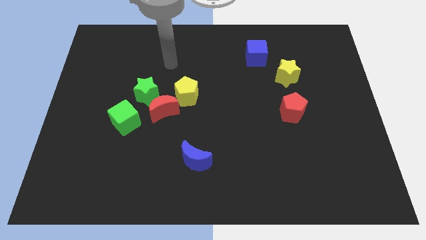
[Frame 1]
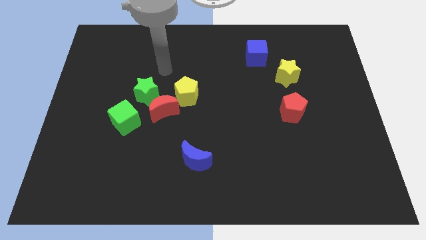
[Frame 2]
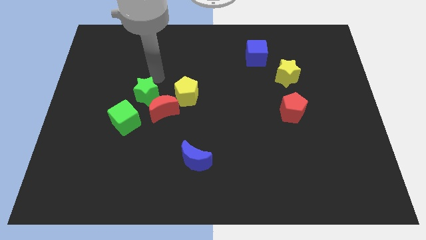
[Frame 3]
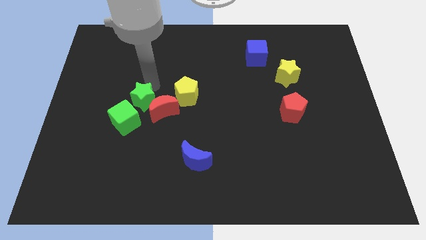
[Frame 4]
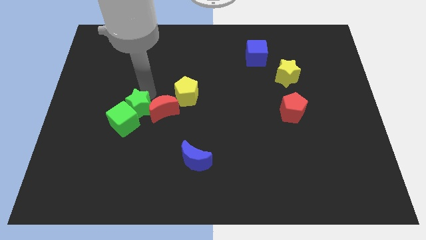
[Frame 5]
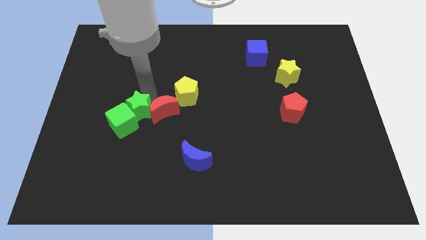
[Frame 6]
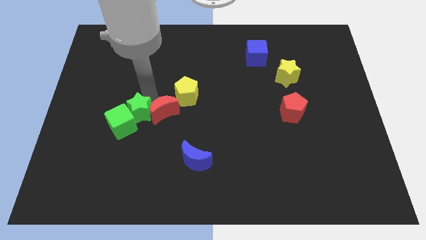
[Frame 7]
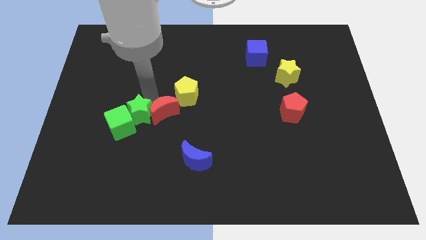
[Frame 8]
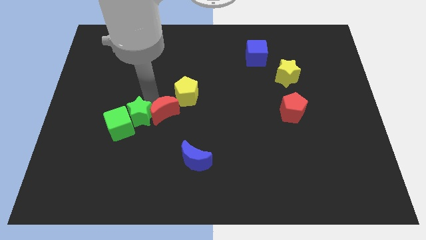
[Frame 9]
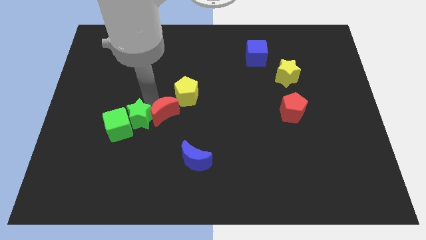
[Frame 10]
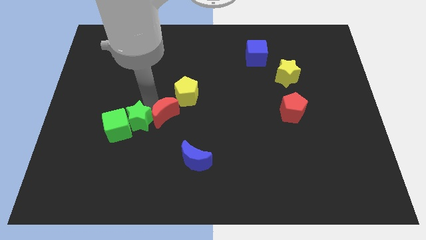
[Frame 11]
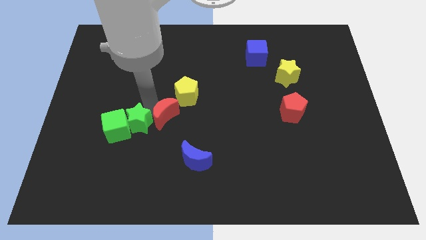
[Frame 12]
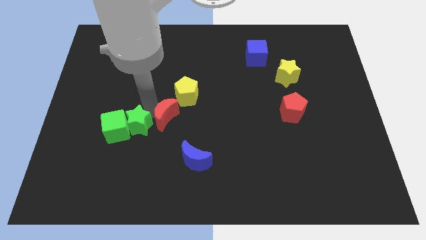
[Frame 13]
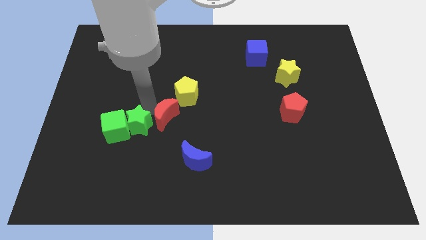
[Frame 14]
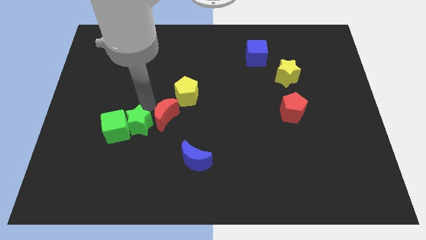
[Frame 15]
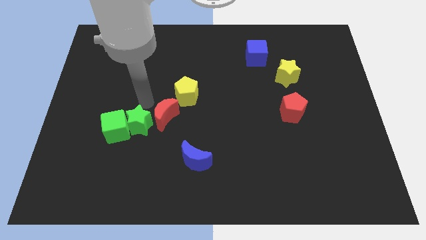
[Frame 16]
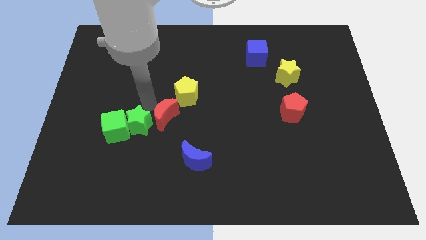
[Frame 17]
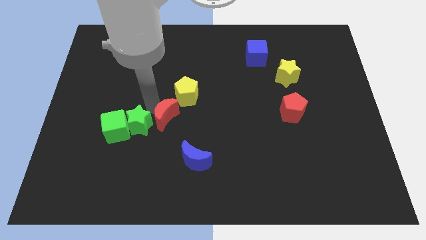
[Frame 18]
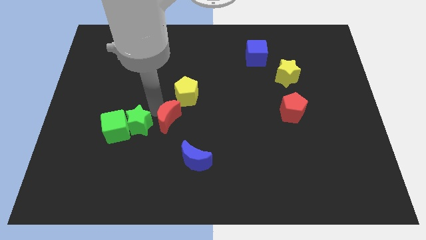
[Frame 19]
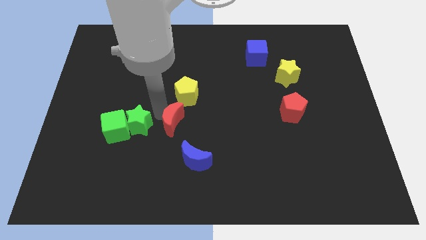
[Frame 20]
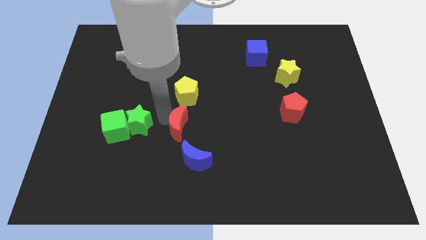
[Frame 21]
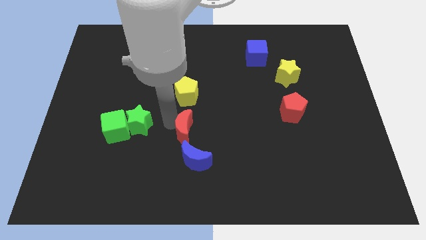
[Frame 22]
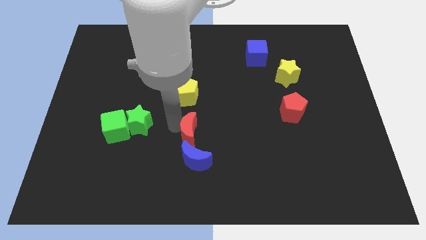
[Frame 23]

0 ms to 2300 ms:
pull the red moon apart from the green star, yellow pentagon, and green cube

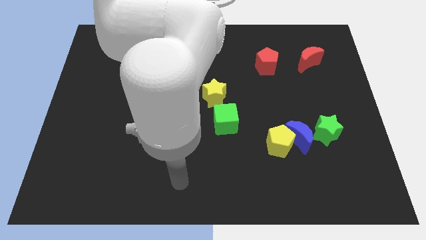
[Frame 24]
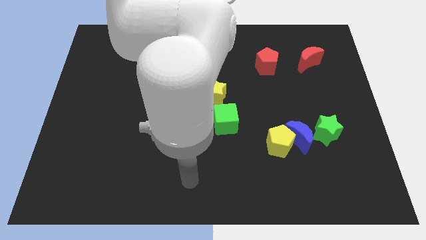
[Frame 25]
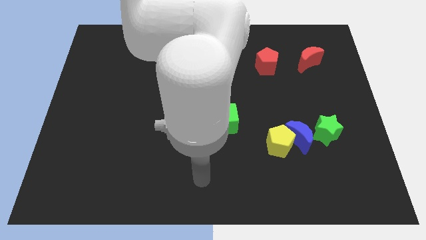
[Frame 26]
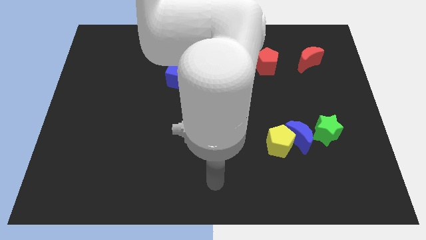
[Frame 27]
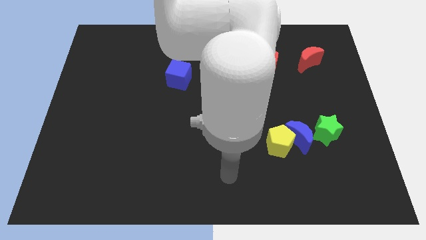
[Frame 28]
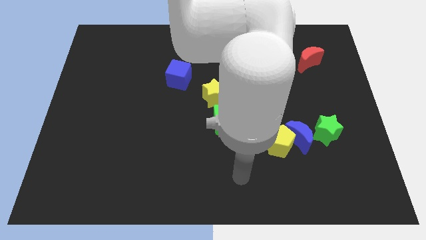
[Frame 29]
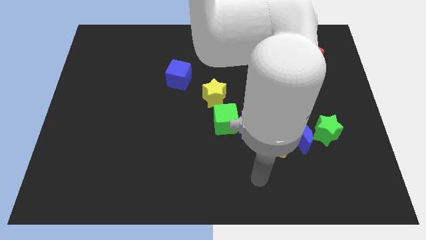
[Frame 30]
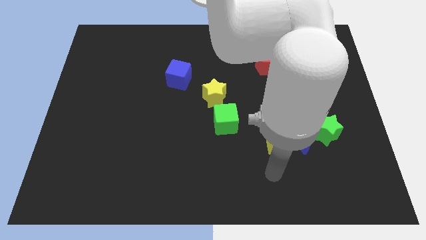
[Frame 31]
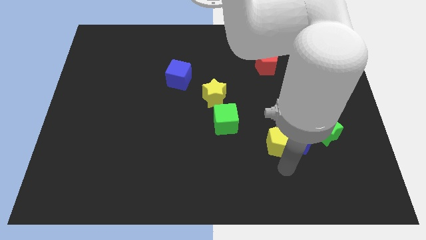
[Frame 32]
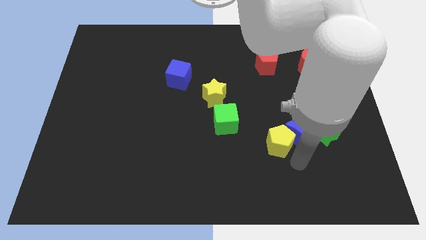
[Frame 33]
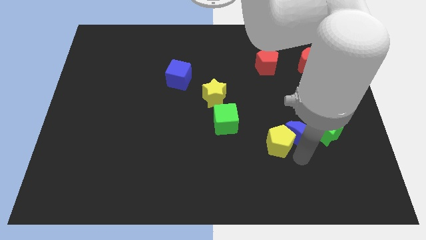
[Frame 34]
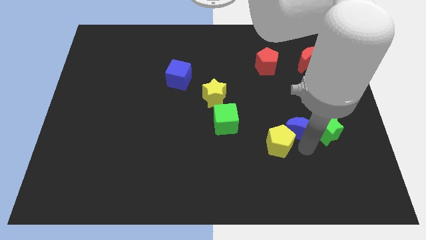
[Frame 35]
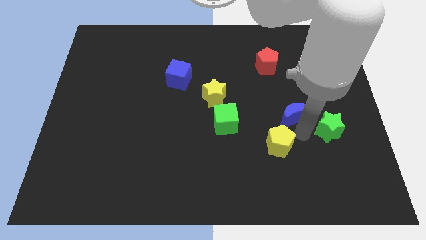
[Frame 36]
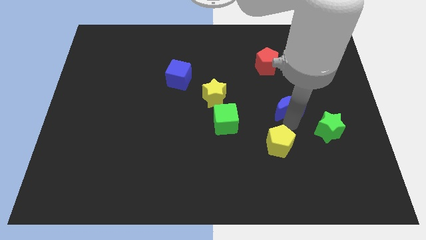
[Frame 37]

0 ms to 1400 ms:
move the yellow pentagon away from the blue moon

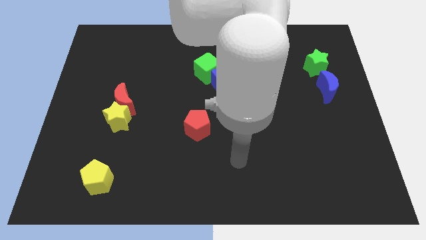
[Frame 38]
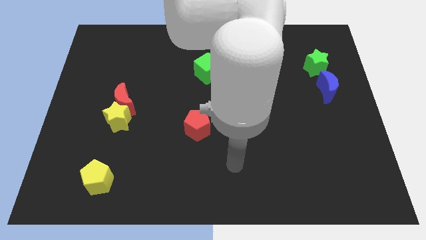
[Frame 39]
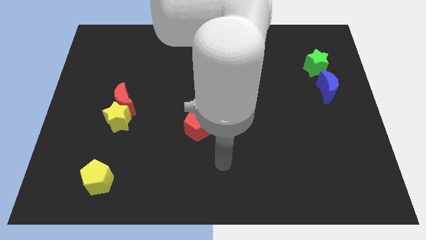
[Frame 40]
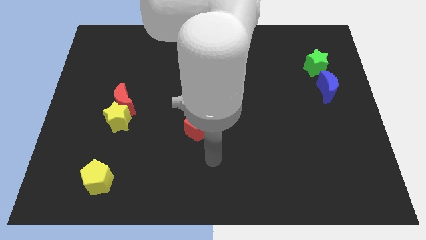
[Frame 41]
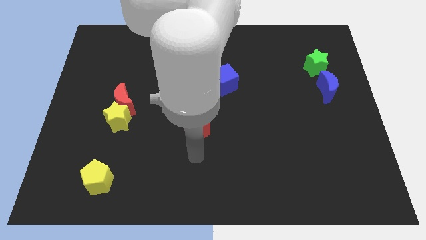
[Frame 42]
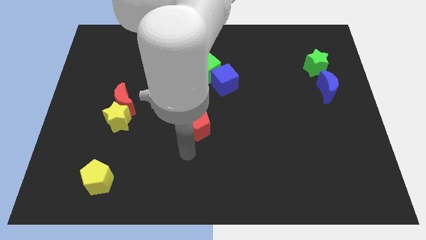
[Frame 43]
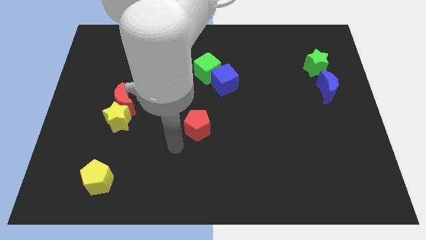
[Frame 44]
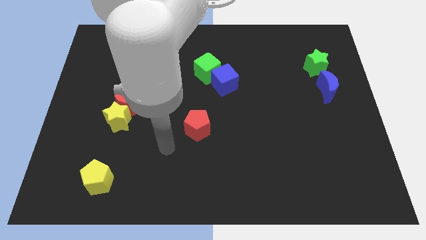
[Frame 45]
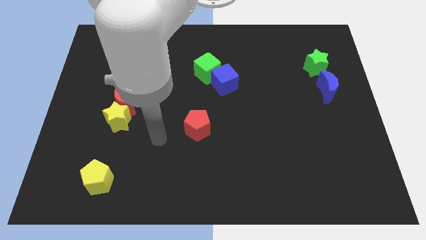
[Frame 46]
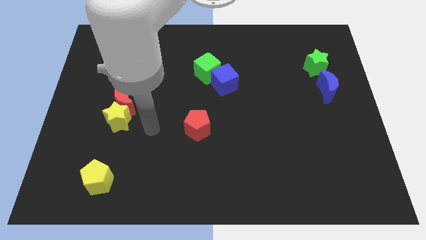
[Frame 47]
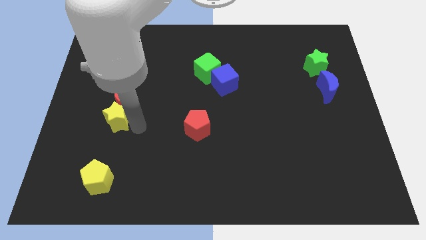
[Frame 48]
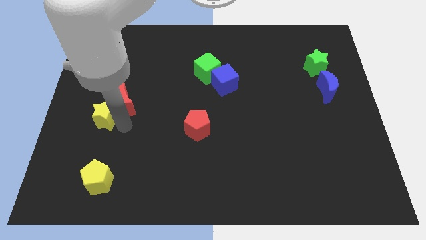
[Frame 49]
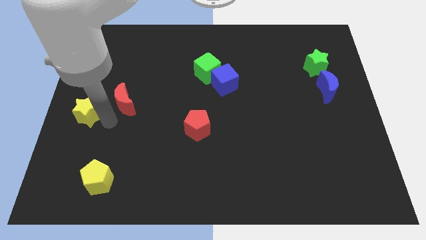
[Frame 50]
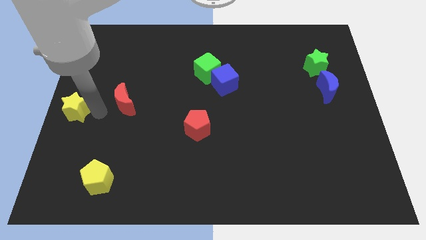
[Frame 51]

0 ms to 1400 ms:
pull the red moon apart from the yellow star

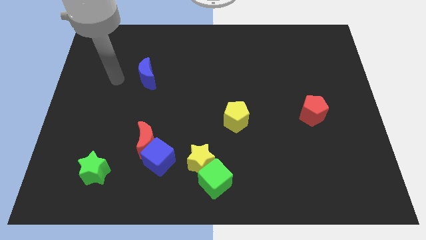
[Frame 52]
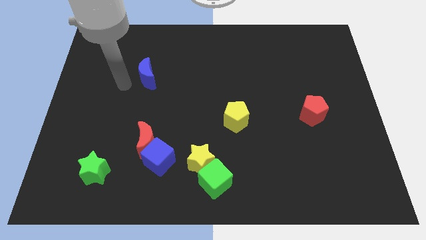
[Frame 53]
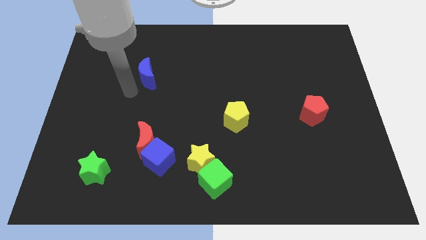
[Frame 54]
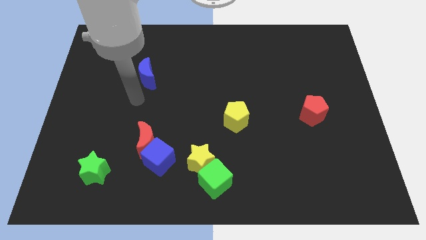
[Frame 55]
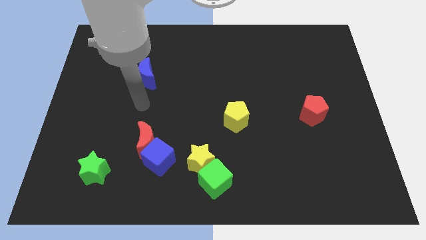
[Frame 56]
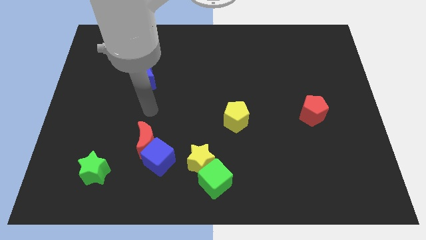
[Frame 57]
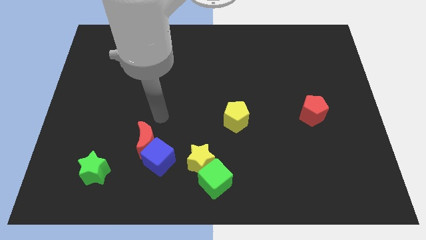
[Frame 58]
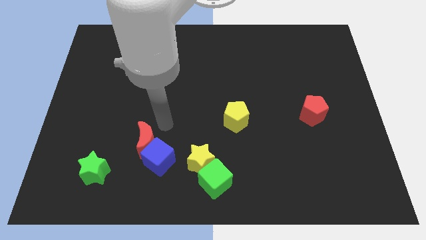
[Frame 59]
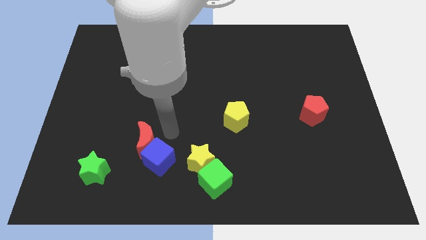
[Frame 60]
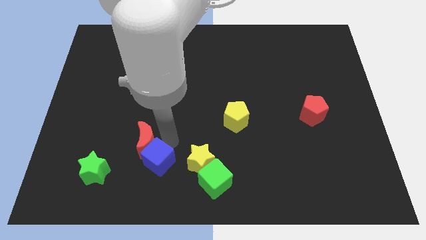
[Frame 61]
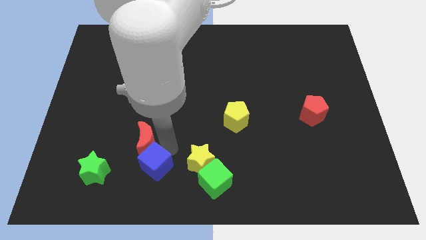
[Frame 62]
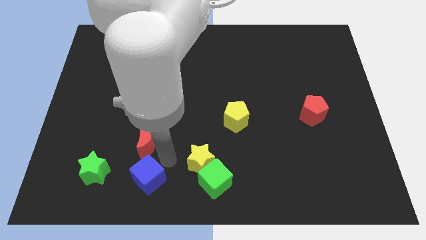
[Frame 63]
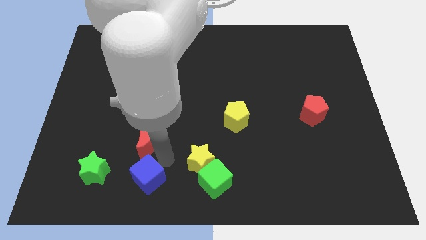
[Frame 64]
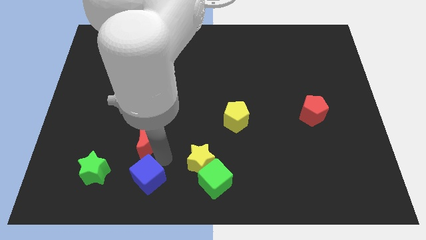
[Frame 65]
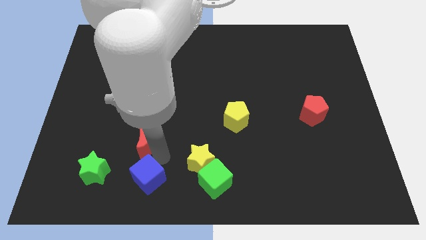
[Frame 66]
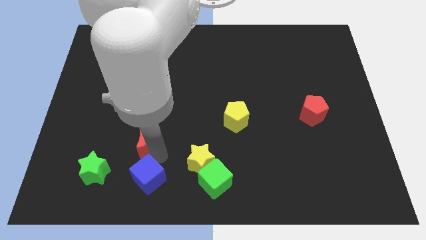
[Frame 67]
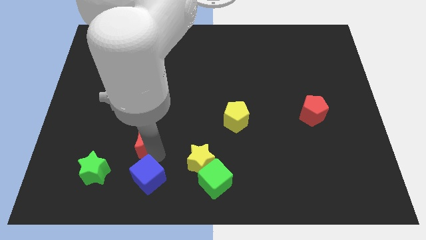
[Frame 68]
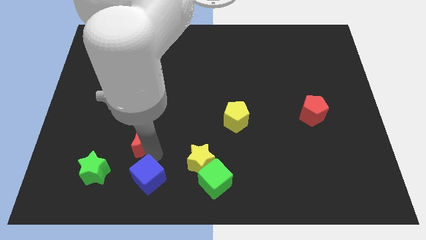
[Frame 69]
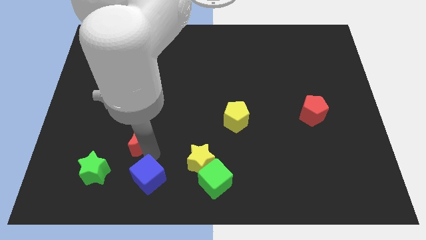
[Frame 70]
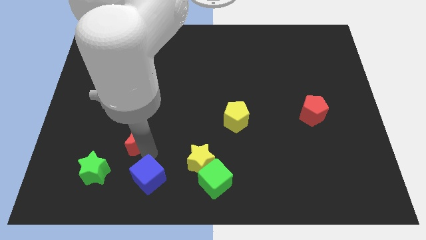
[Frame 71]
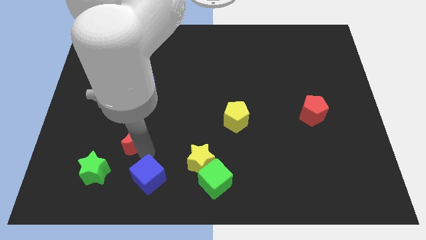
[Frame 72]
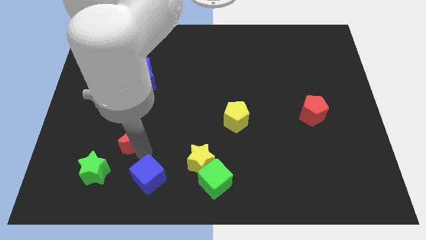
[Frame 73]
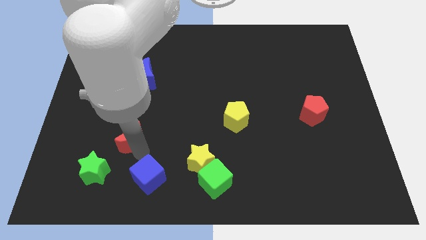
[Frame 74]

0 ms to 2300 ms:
move the red moon away from the blue cube

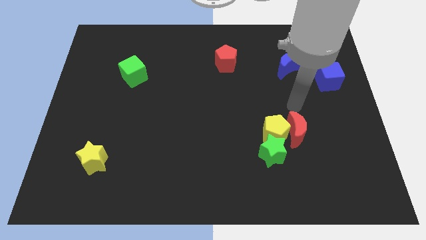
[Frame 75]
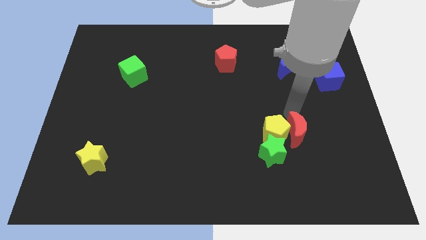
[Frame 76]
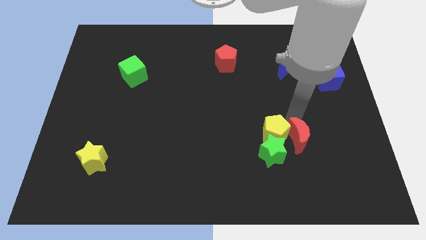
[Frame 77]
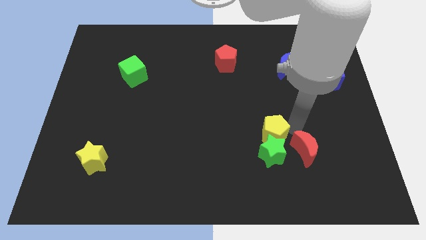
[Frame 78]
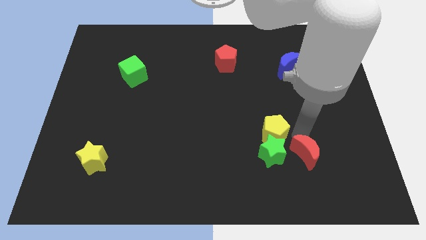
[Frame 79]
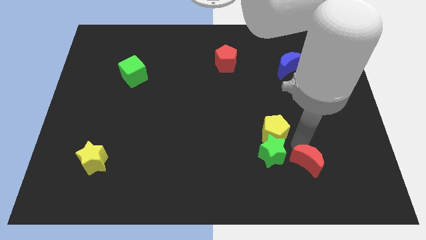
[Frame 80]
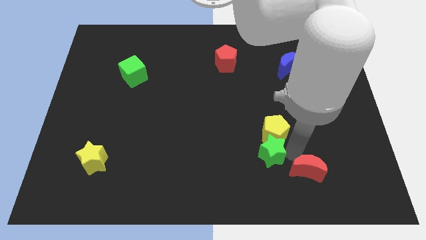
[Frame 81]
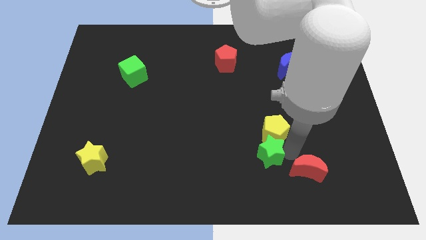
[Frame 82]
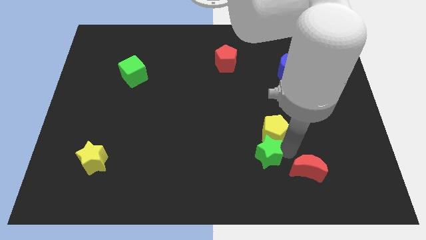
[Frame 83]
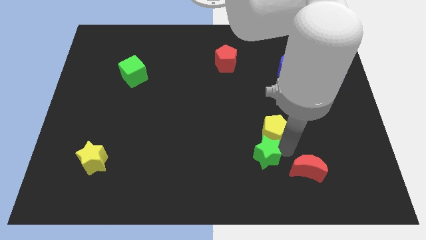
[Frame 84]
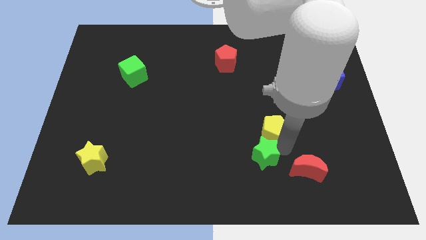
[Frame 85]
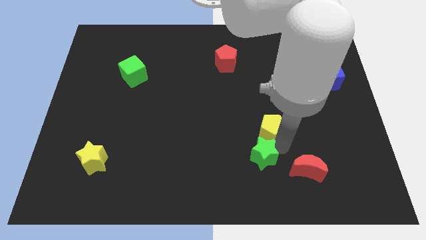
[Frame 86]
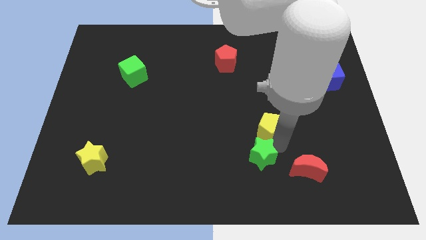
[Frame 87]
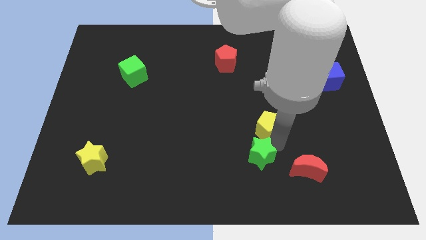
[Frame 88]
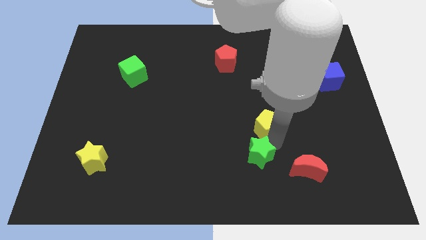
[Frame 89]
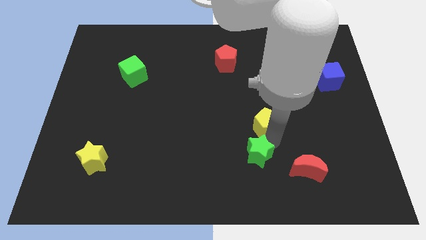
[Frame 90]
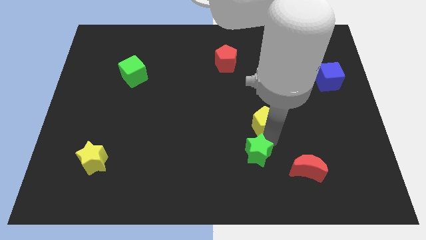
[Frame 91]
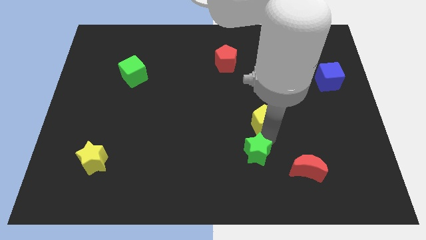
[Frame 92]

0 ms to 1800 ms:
pull the yellow pentagon apart from the red moon and green star
